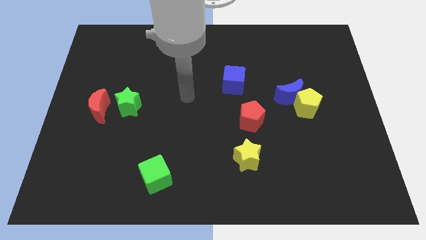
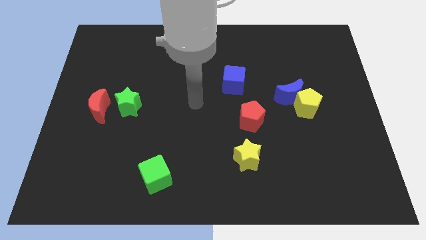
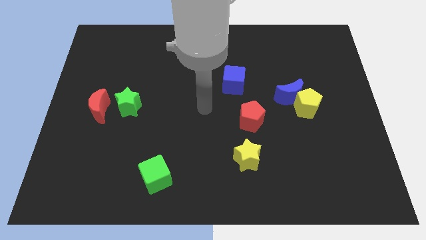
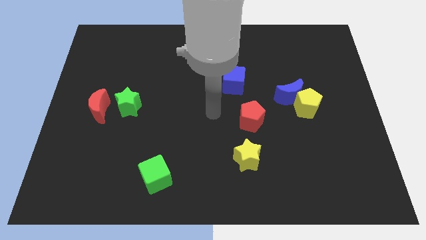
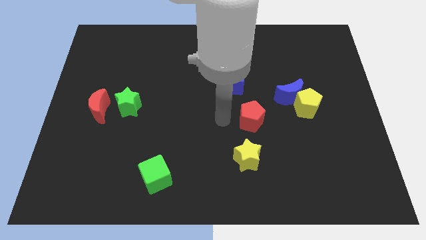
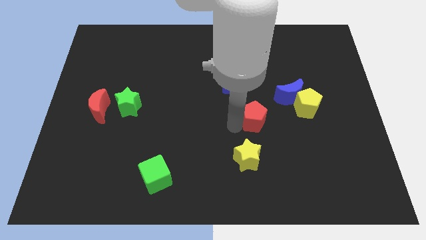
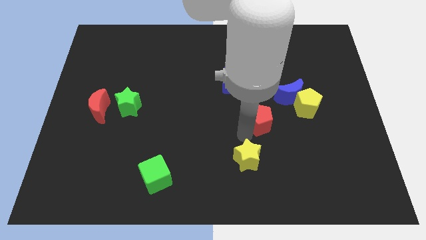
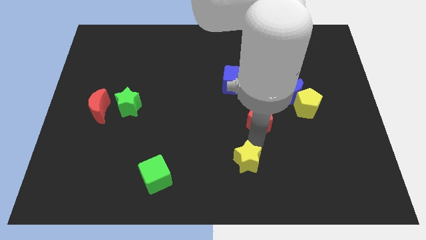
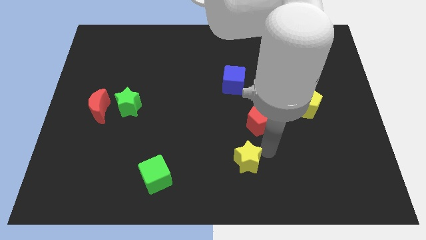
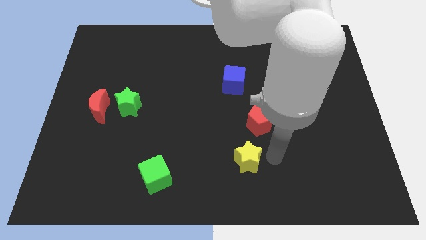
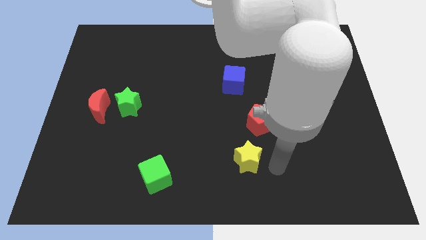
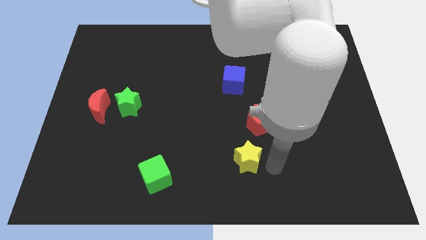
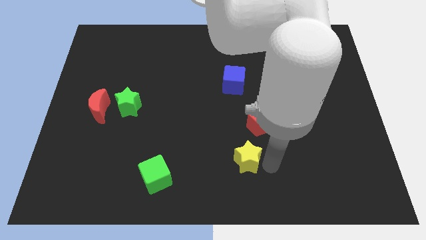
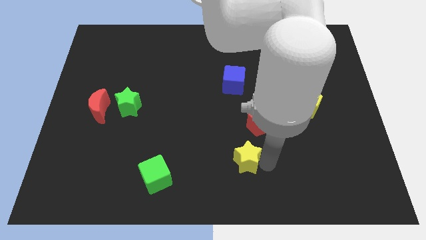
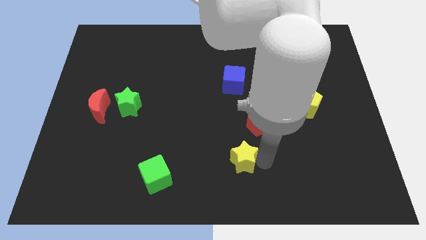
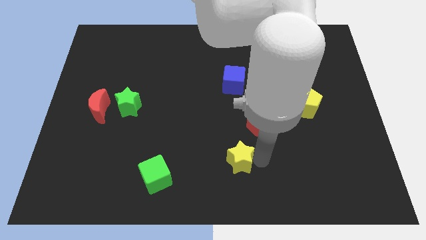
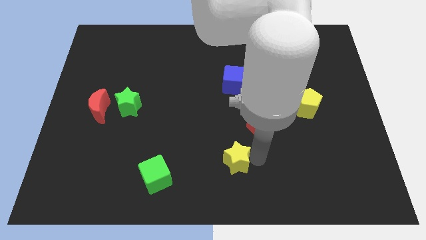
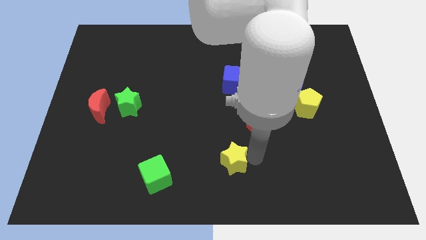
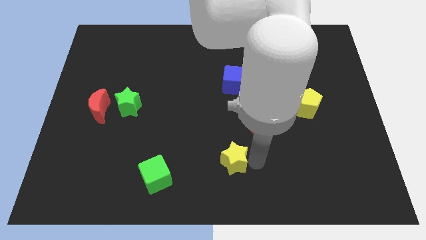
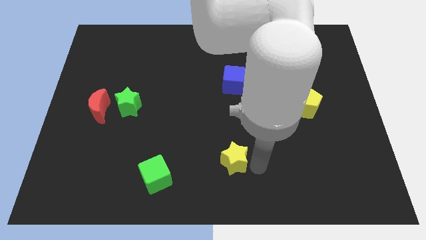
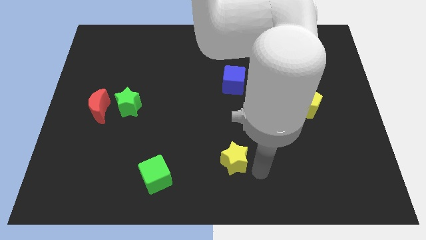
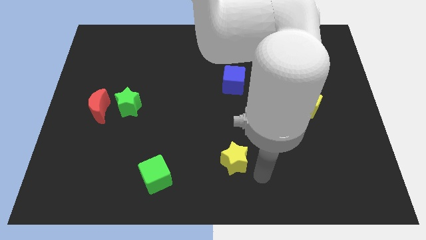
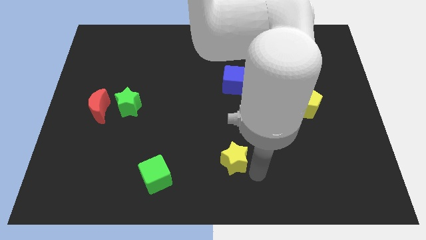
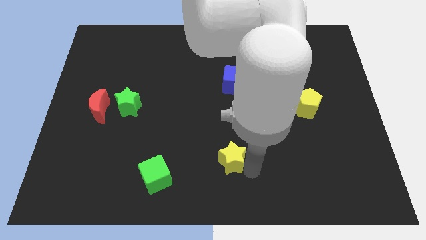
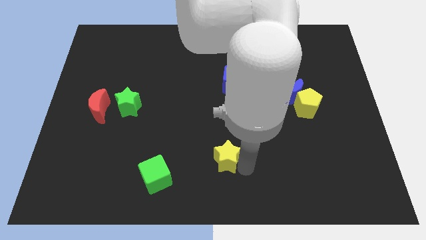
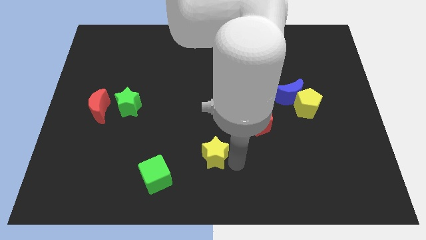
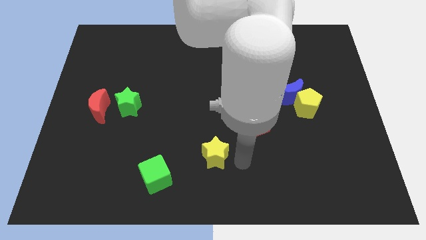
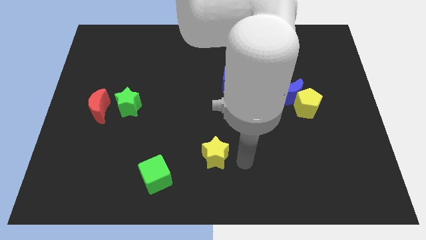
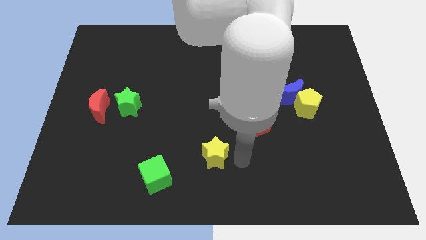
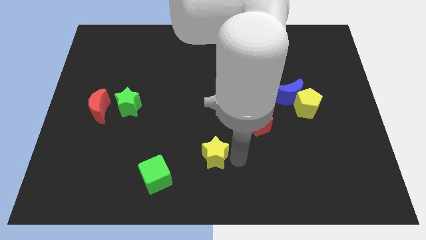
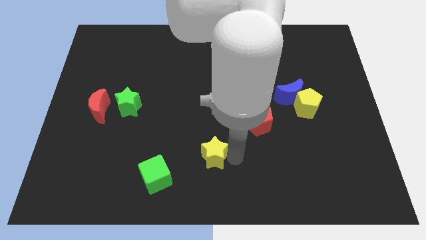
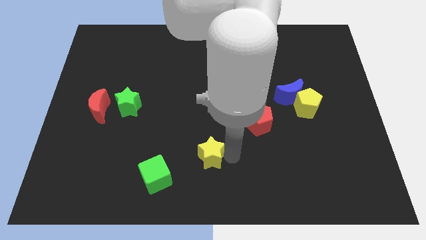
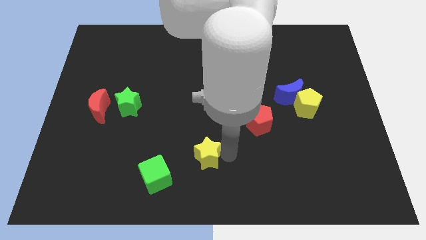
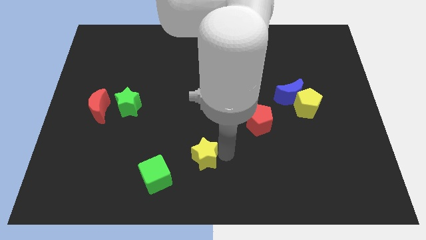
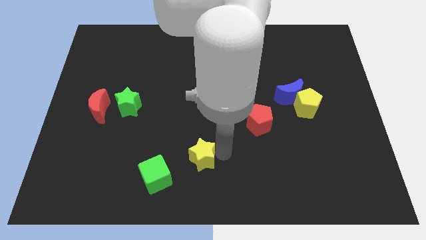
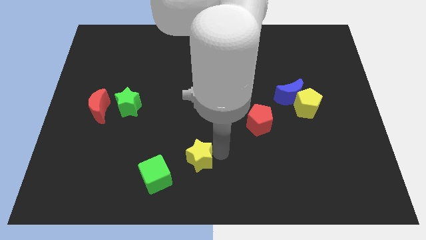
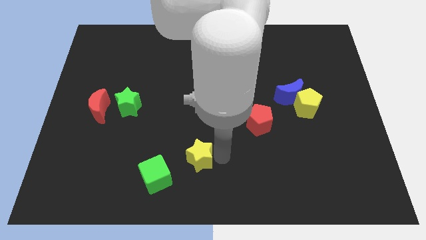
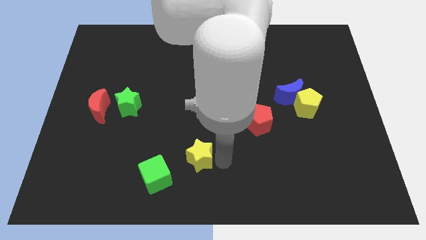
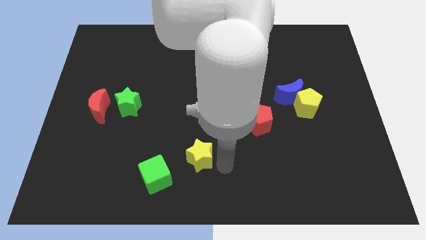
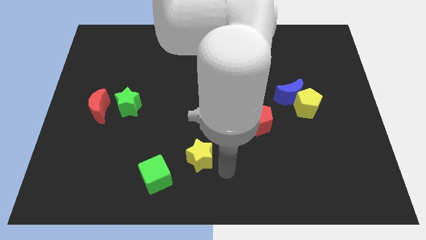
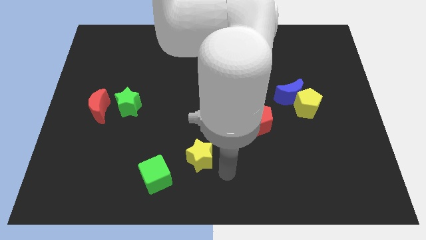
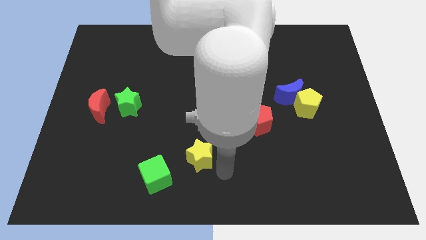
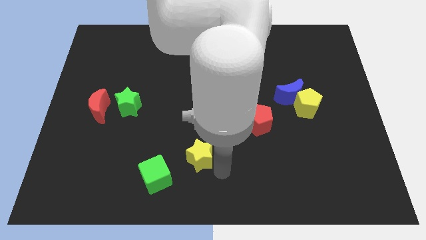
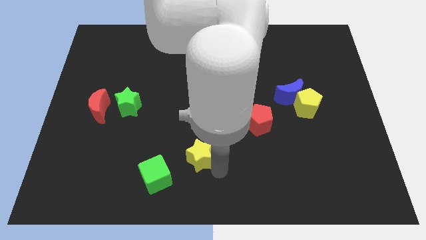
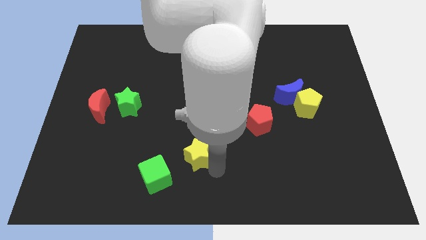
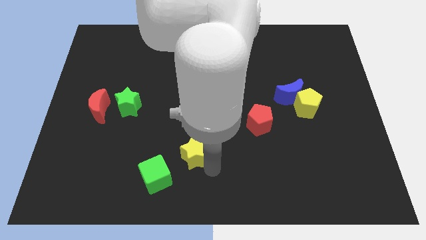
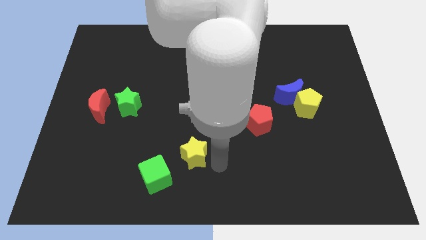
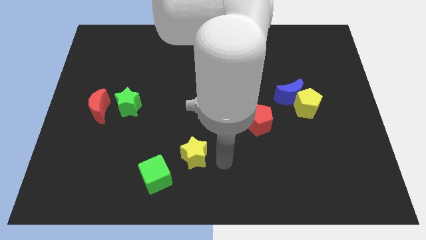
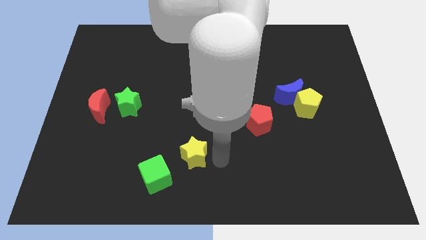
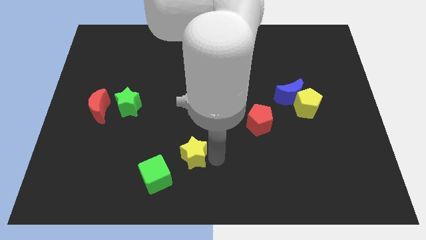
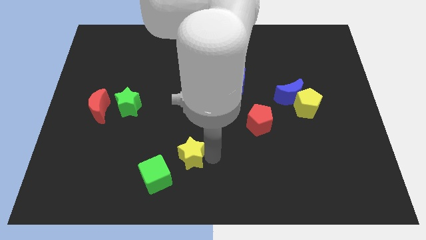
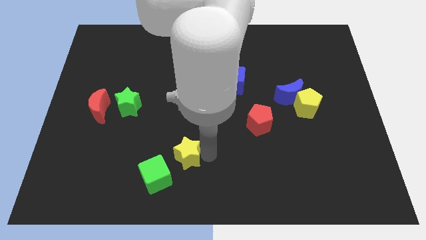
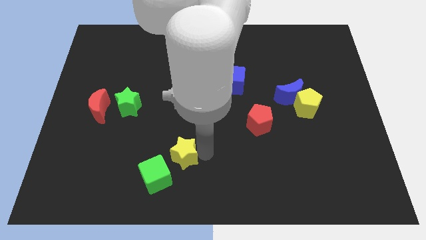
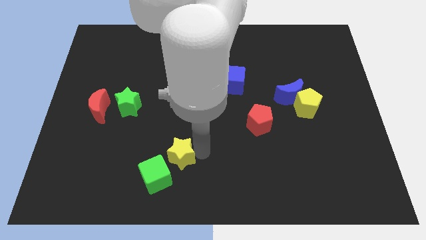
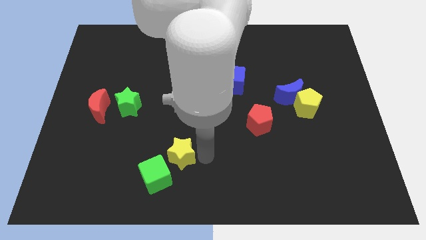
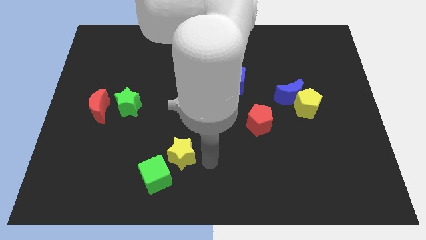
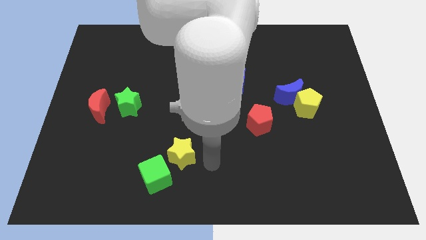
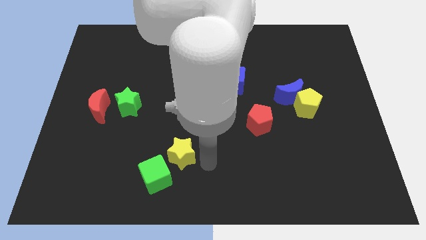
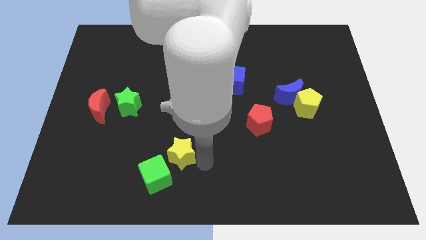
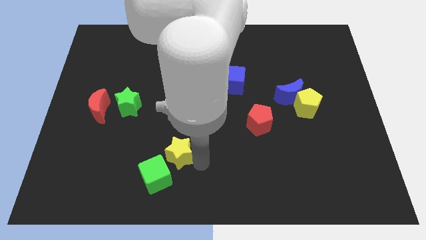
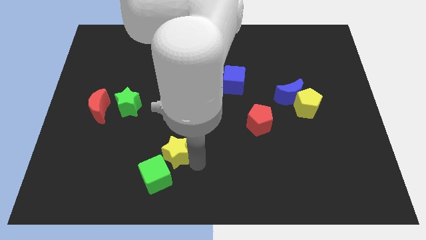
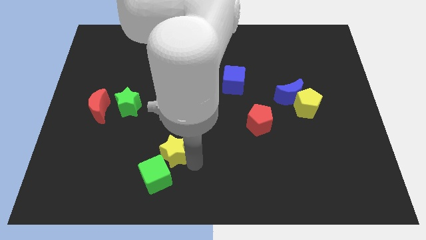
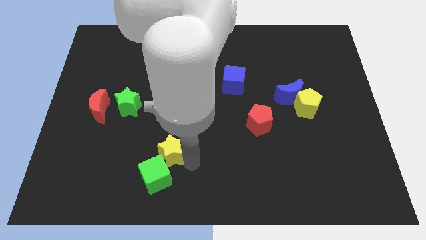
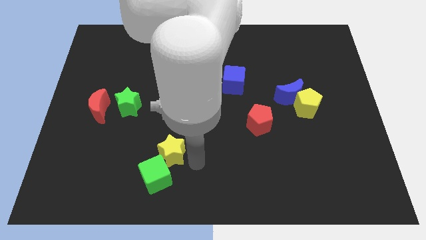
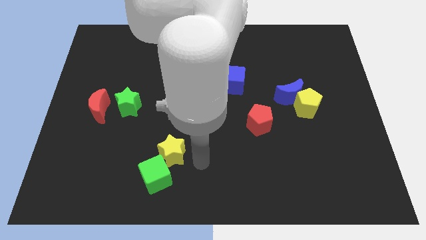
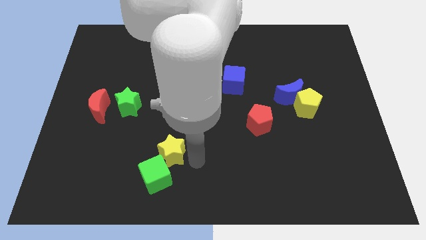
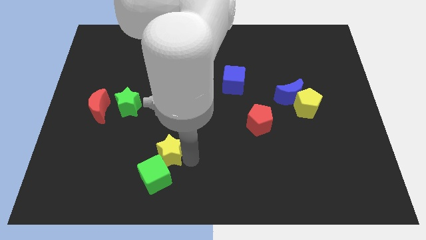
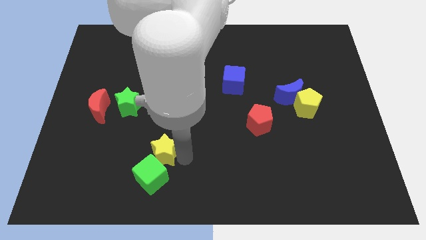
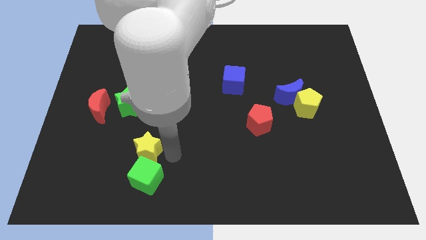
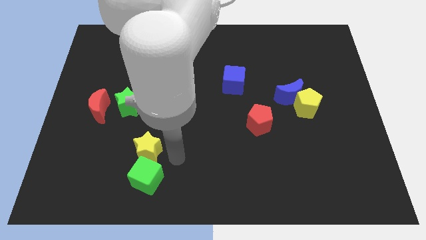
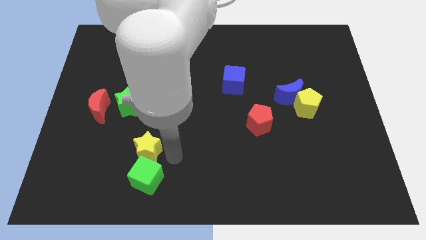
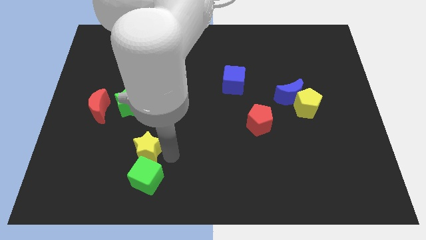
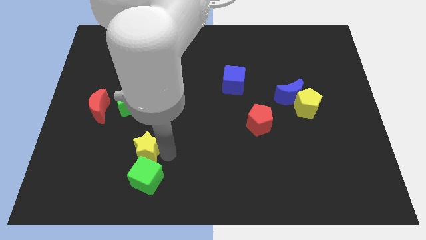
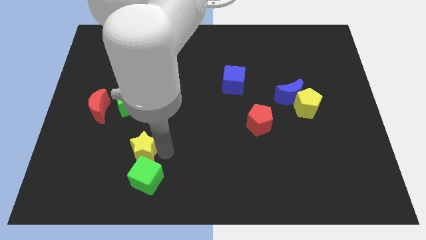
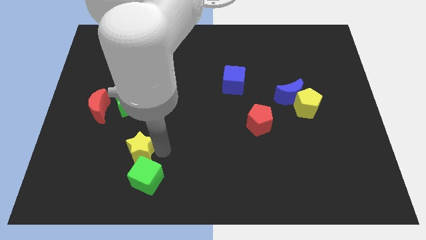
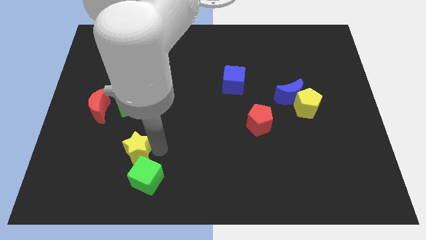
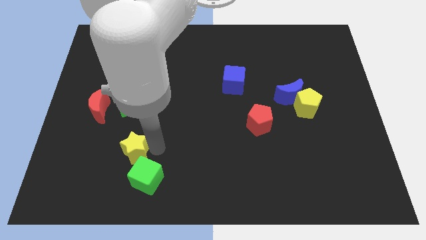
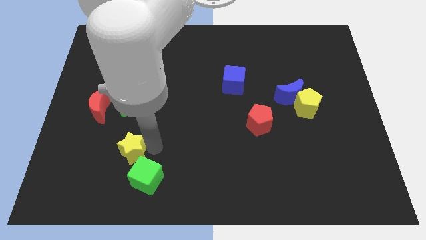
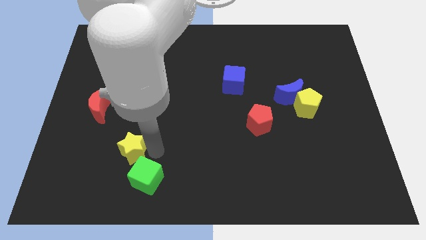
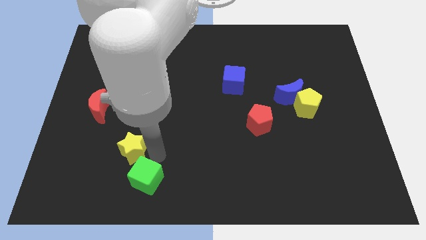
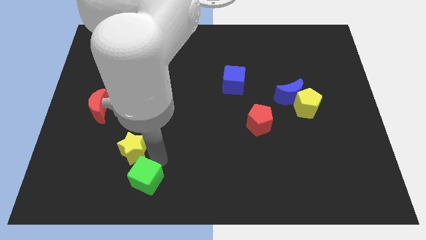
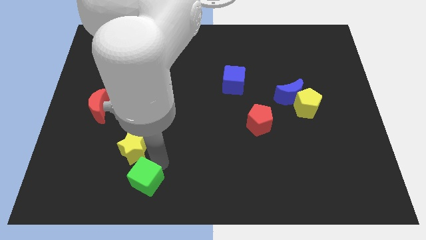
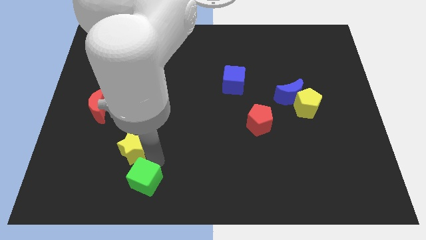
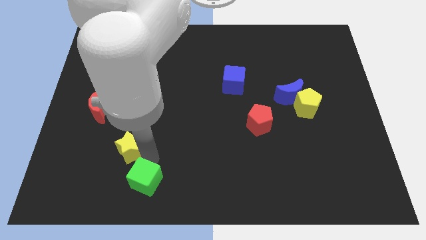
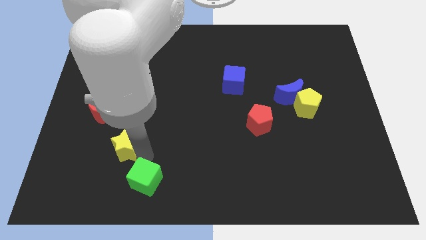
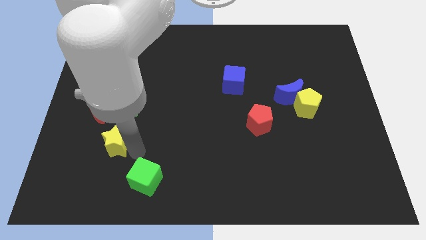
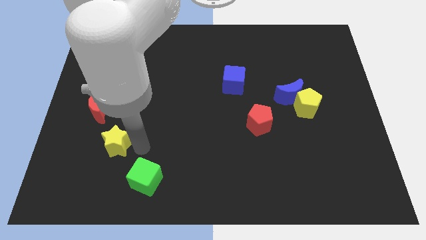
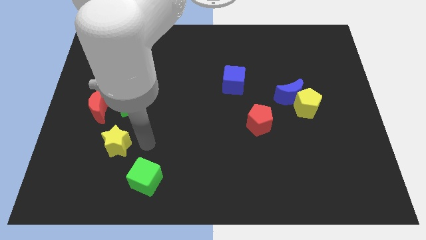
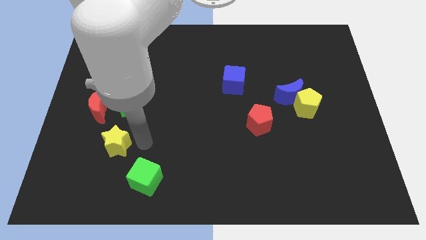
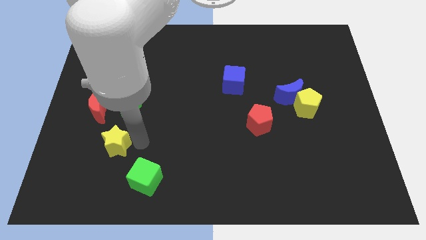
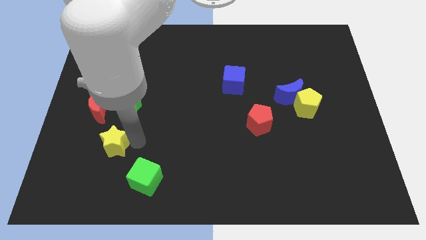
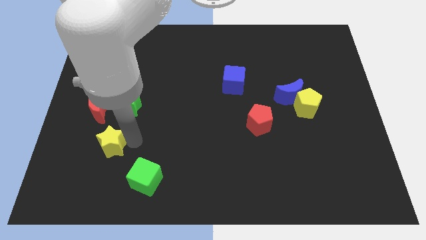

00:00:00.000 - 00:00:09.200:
put the yellow star to the bottom of the red moon
